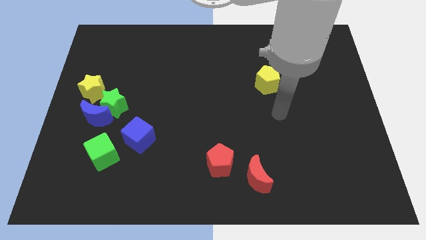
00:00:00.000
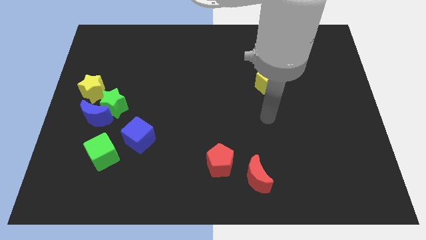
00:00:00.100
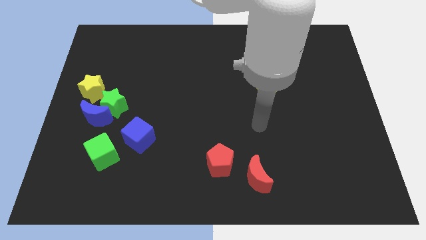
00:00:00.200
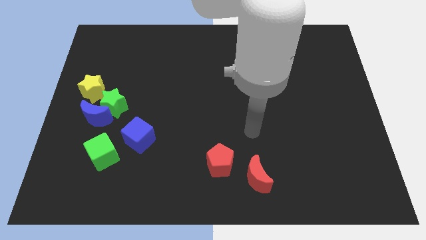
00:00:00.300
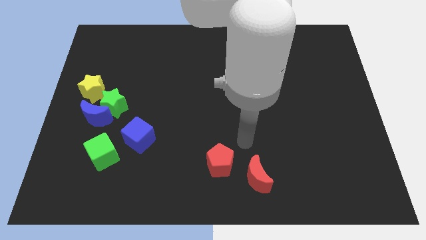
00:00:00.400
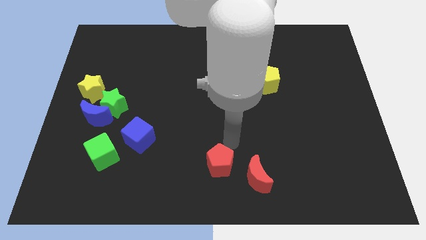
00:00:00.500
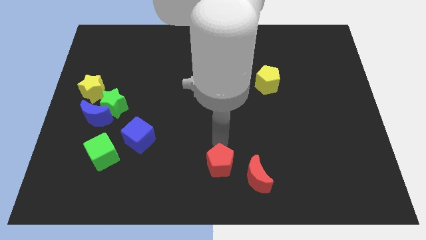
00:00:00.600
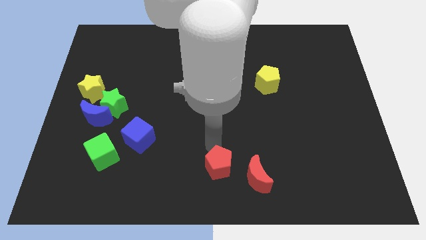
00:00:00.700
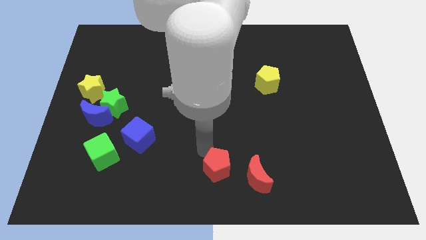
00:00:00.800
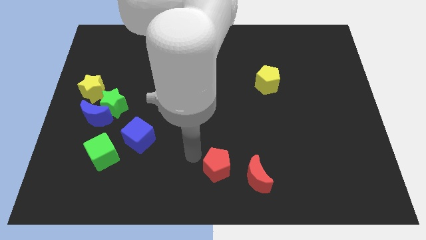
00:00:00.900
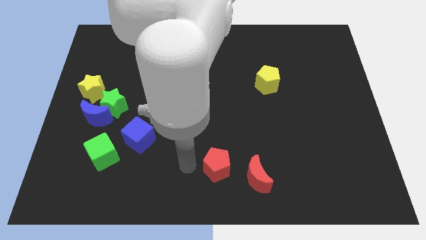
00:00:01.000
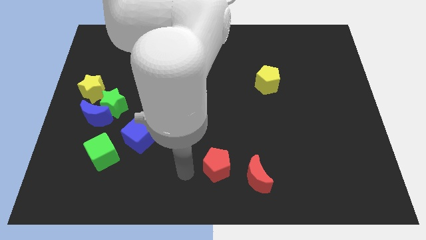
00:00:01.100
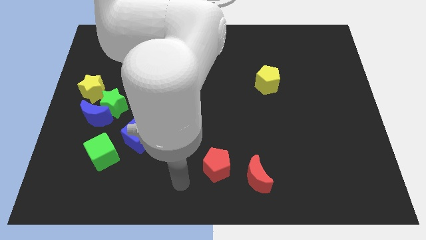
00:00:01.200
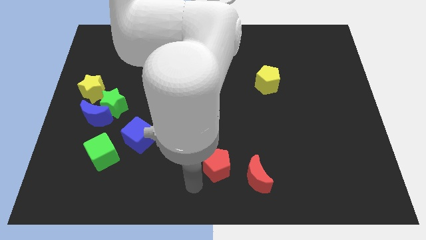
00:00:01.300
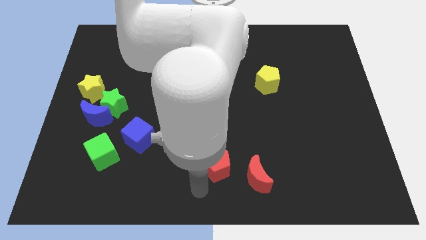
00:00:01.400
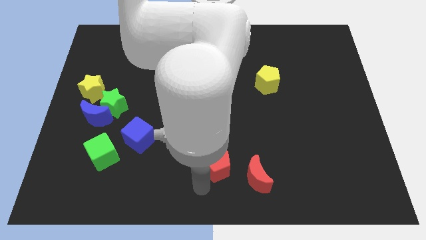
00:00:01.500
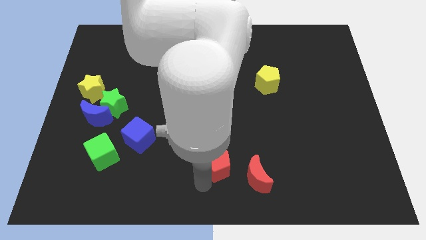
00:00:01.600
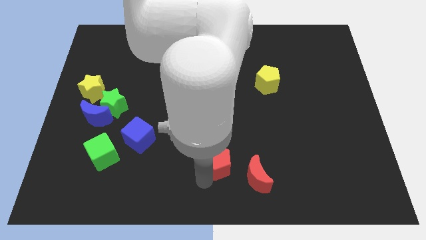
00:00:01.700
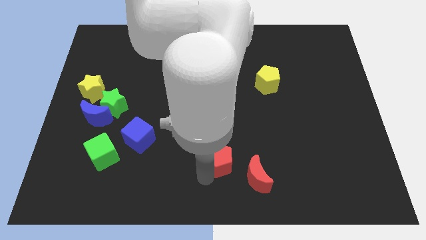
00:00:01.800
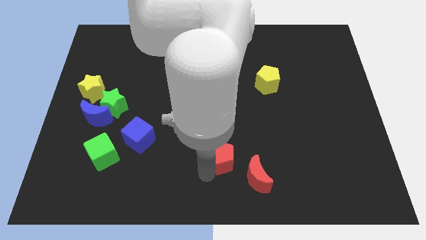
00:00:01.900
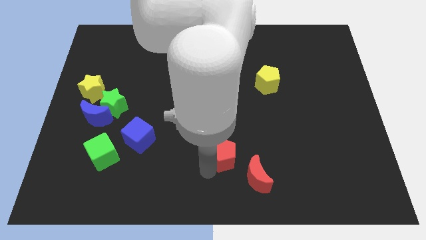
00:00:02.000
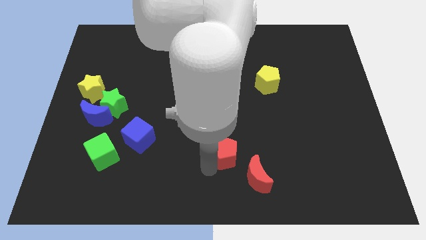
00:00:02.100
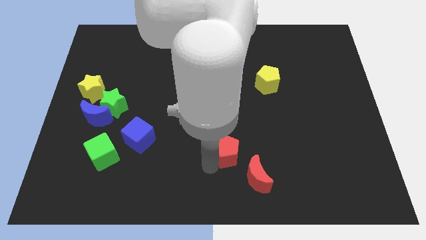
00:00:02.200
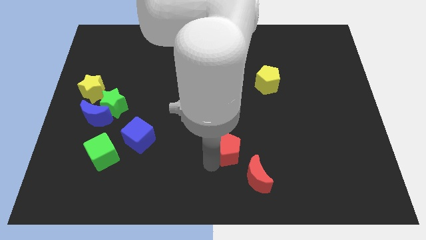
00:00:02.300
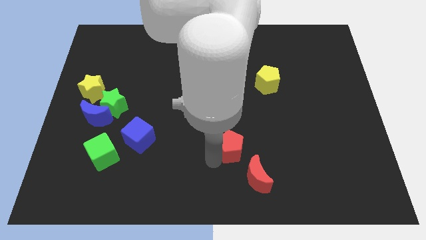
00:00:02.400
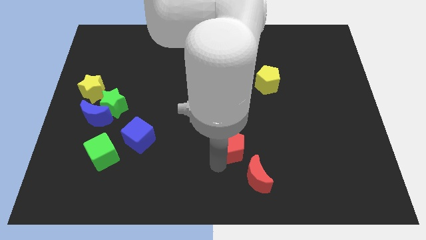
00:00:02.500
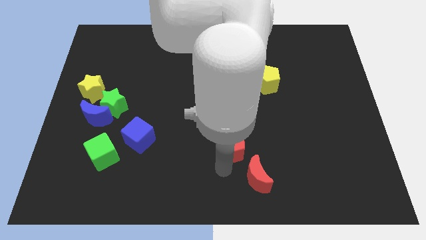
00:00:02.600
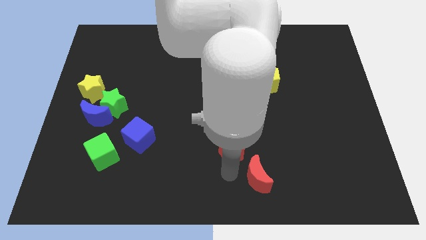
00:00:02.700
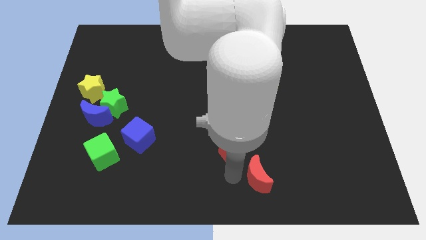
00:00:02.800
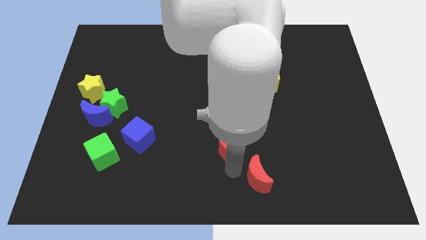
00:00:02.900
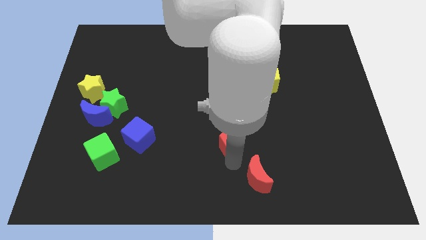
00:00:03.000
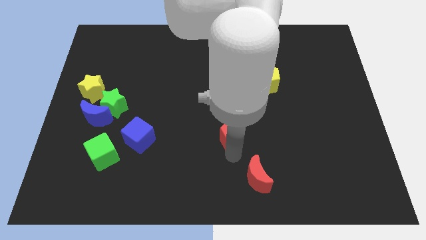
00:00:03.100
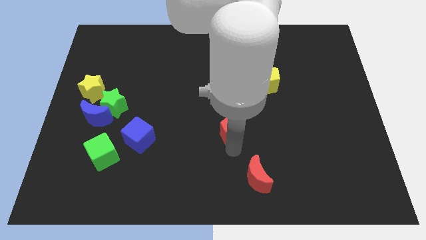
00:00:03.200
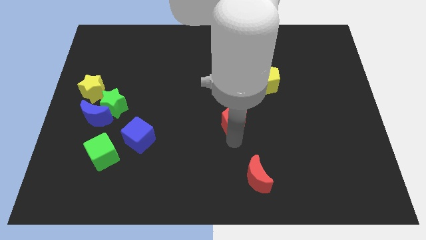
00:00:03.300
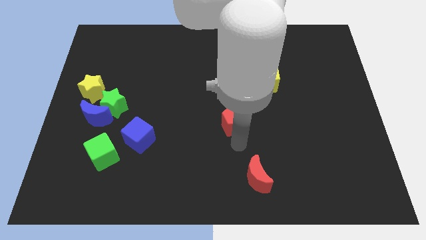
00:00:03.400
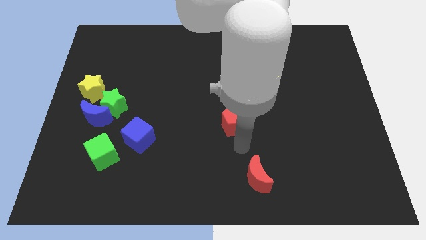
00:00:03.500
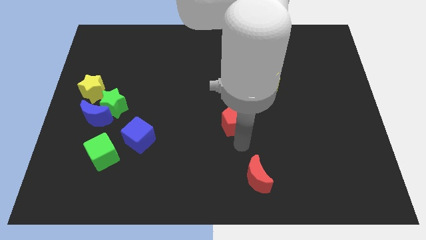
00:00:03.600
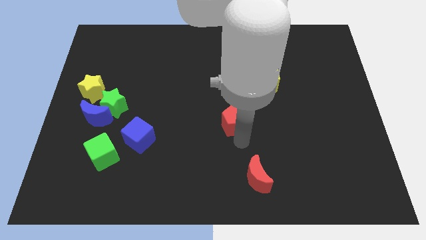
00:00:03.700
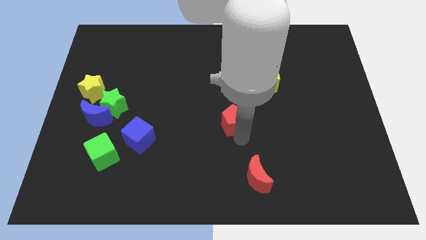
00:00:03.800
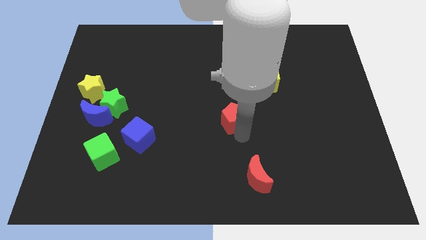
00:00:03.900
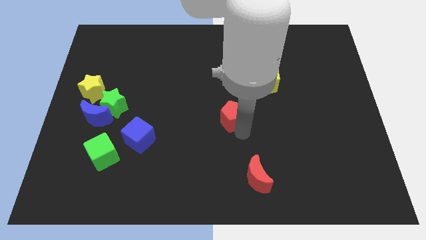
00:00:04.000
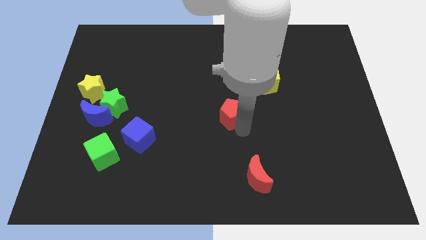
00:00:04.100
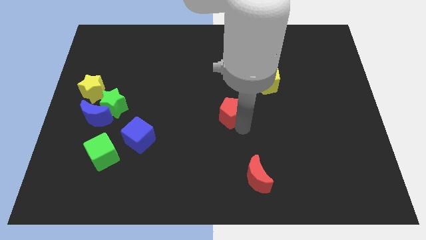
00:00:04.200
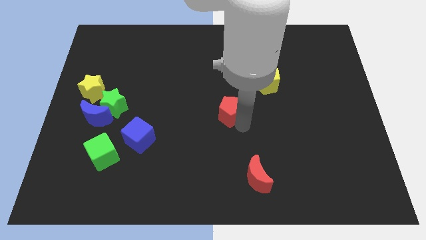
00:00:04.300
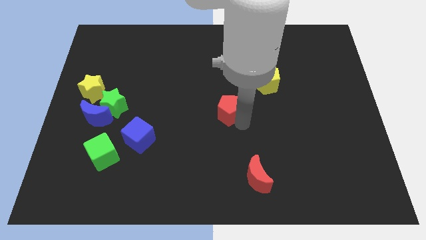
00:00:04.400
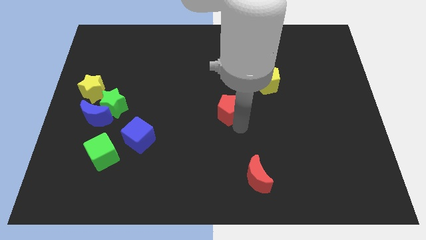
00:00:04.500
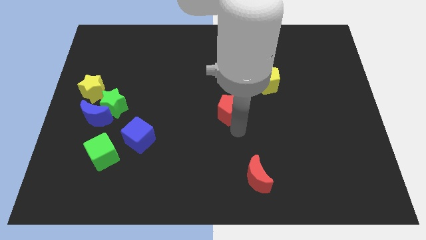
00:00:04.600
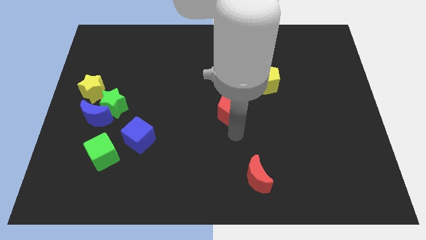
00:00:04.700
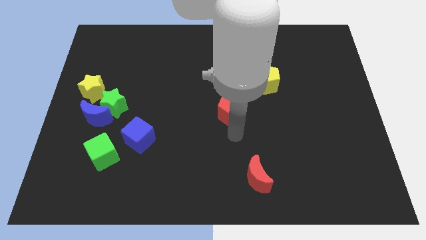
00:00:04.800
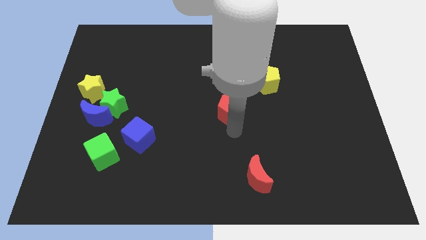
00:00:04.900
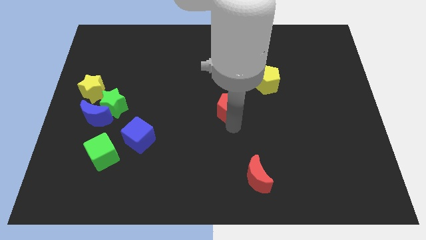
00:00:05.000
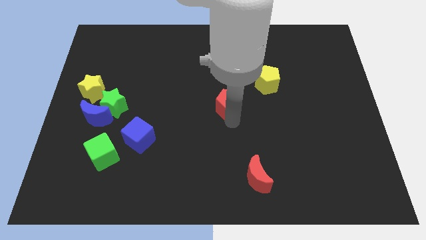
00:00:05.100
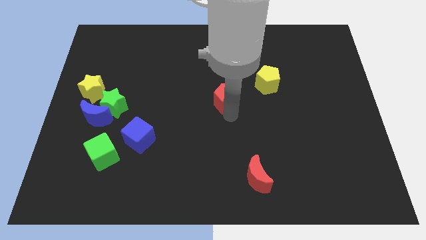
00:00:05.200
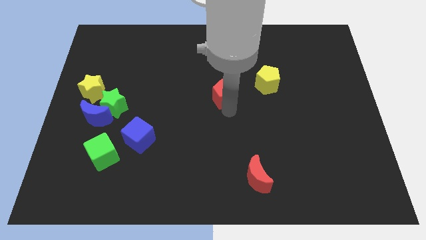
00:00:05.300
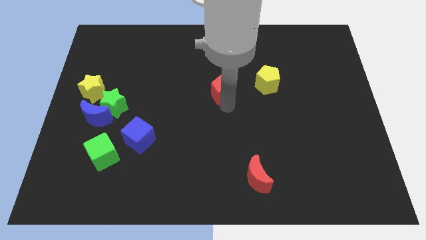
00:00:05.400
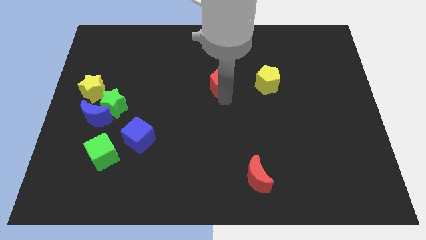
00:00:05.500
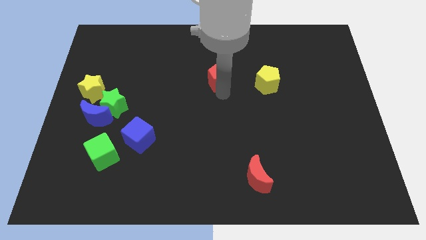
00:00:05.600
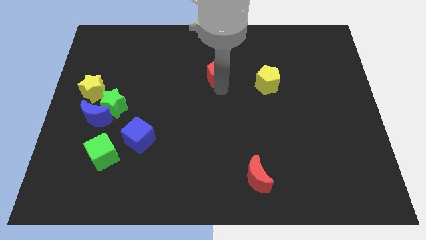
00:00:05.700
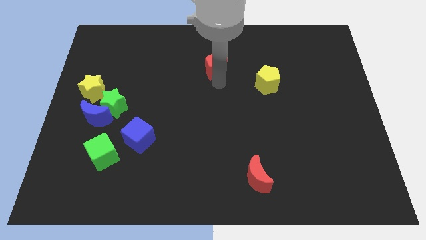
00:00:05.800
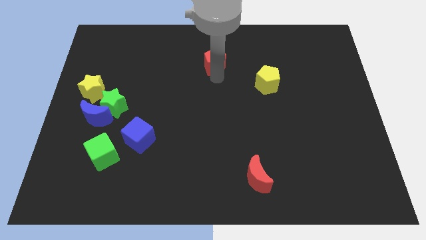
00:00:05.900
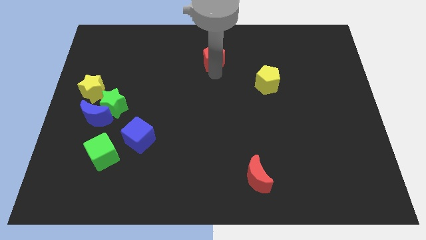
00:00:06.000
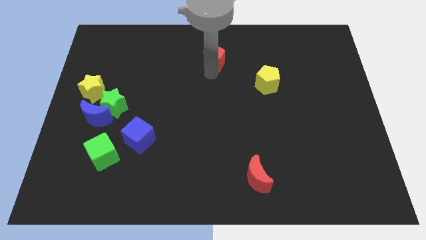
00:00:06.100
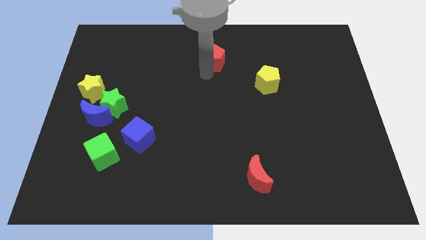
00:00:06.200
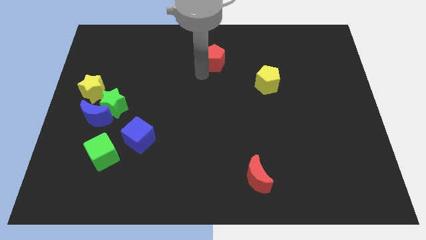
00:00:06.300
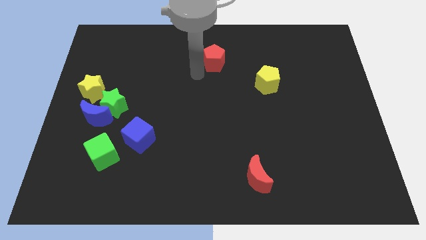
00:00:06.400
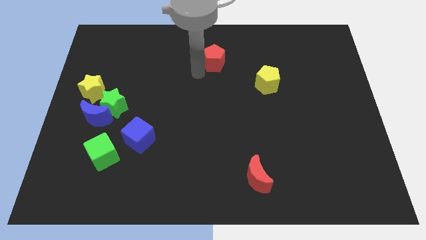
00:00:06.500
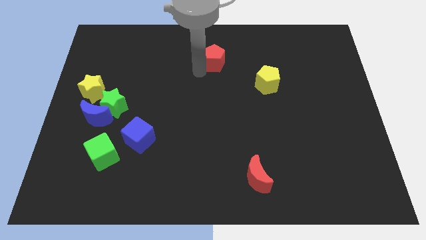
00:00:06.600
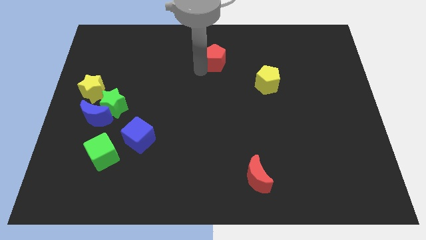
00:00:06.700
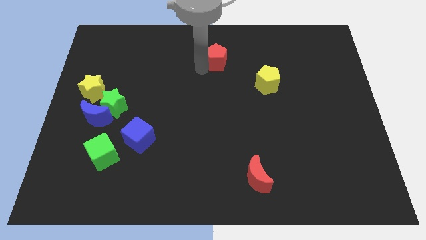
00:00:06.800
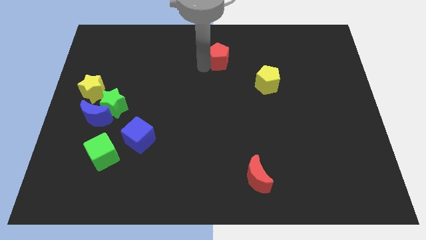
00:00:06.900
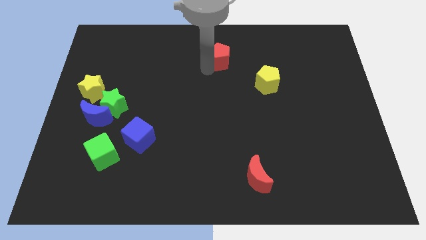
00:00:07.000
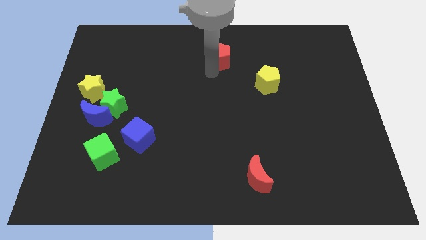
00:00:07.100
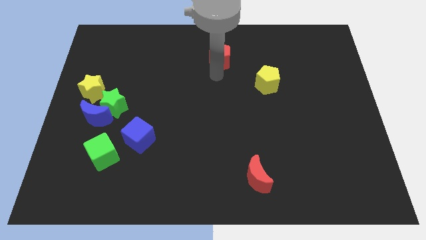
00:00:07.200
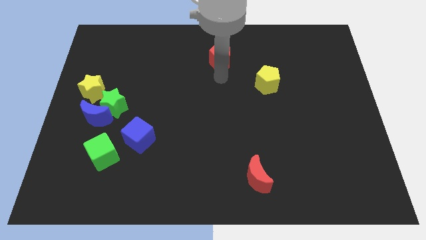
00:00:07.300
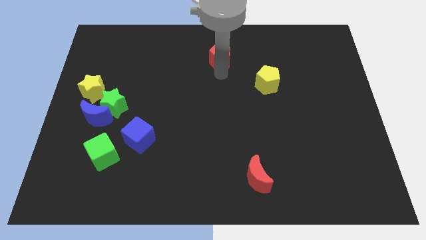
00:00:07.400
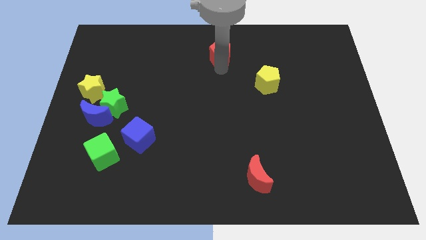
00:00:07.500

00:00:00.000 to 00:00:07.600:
slide the red pentagon to the towards your base
